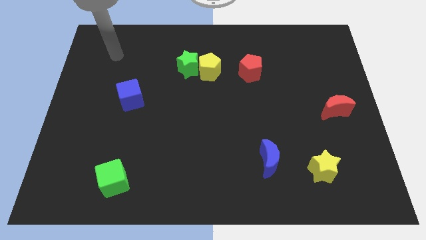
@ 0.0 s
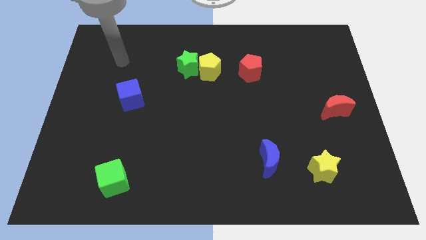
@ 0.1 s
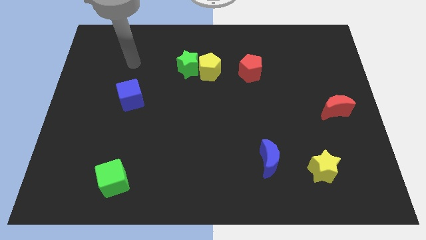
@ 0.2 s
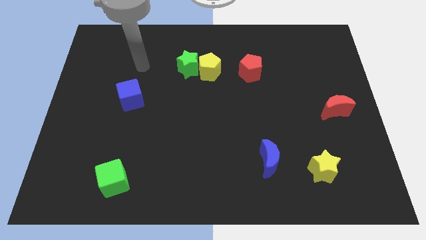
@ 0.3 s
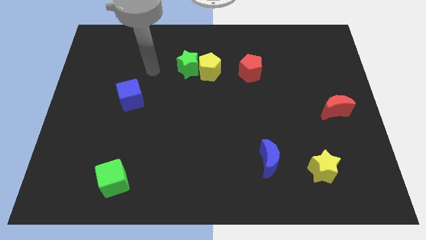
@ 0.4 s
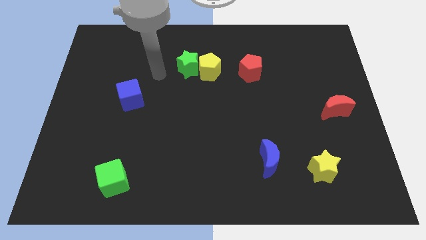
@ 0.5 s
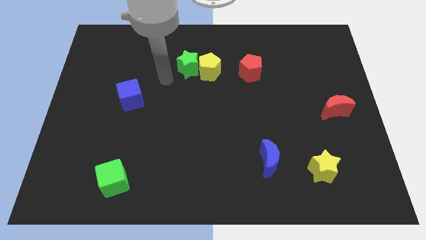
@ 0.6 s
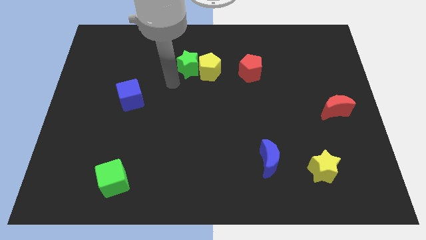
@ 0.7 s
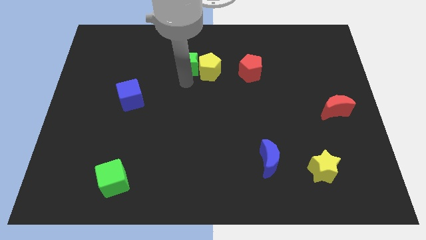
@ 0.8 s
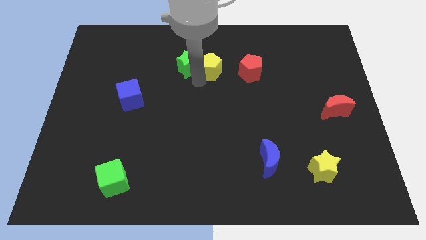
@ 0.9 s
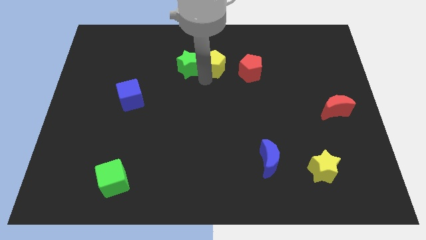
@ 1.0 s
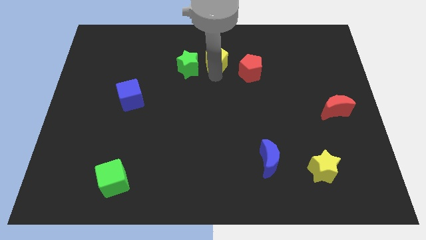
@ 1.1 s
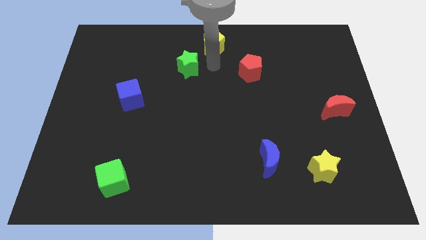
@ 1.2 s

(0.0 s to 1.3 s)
pull the green star apart from the yellow pentagon

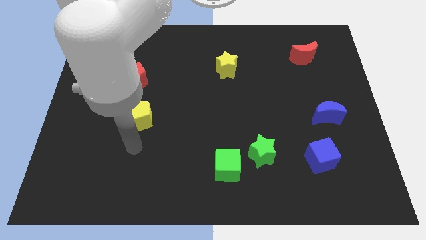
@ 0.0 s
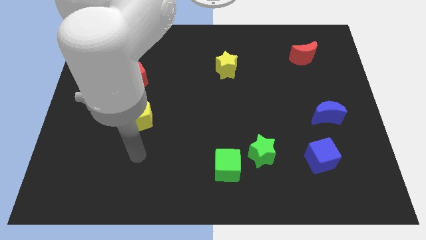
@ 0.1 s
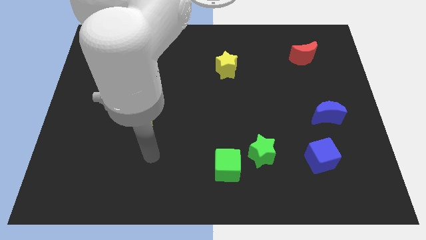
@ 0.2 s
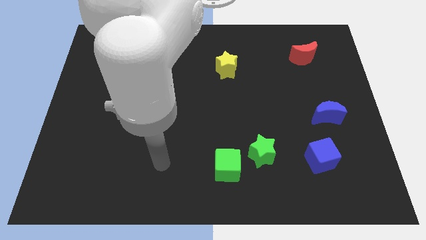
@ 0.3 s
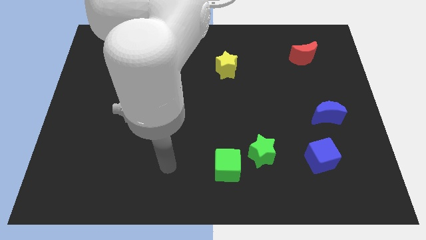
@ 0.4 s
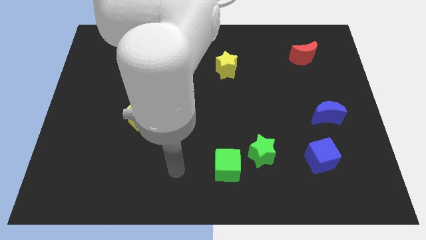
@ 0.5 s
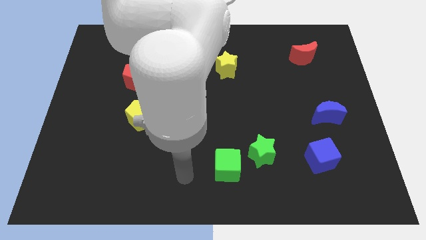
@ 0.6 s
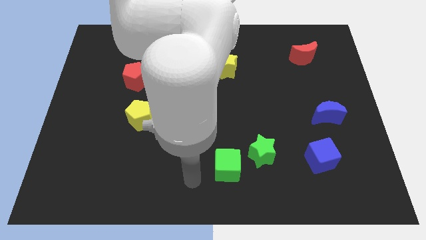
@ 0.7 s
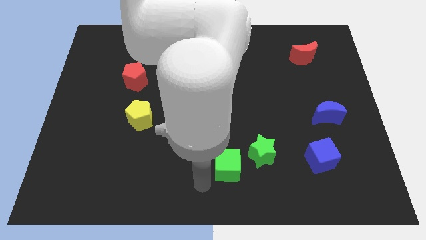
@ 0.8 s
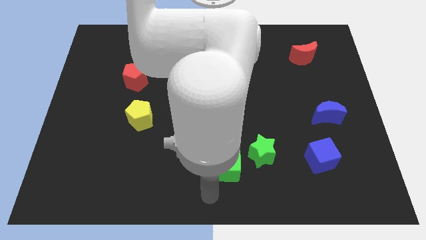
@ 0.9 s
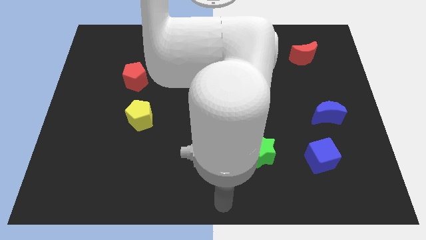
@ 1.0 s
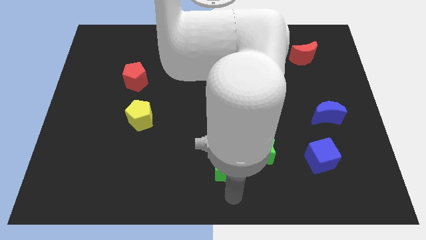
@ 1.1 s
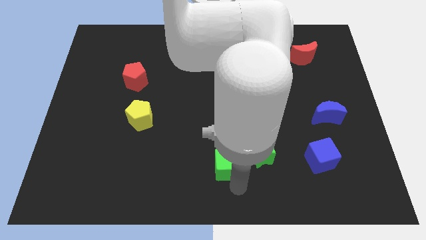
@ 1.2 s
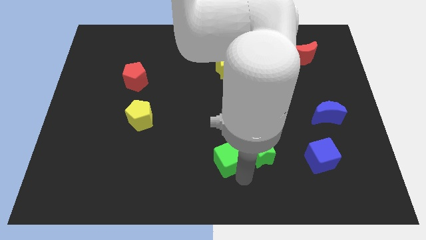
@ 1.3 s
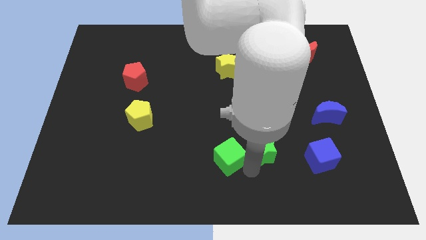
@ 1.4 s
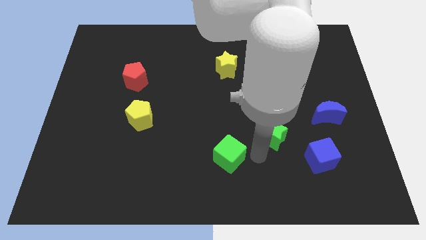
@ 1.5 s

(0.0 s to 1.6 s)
pull the green cube apart from the green star

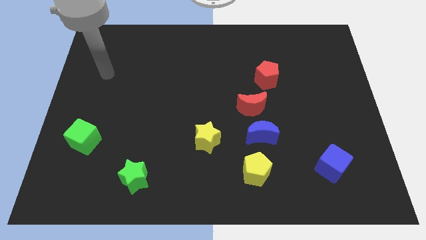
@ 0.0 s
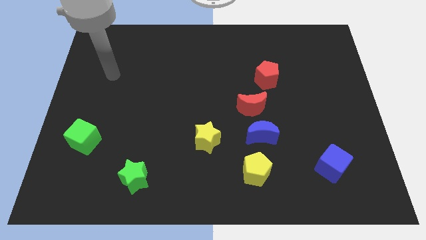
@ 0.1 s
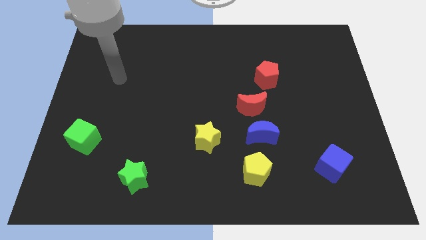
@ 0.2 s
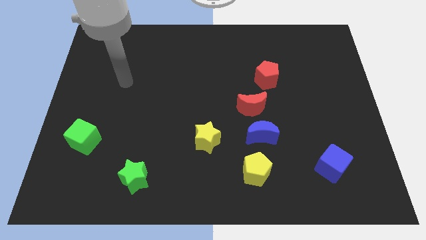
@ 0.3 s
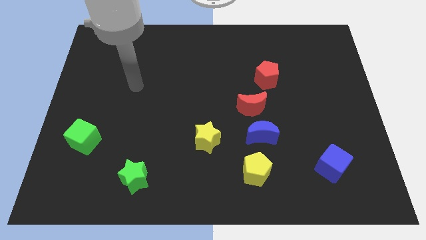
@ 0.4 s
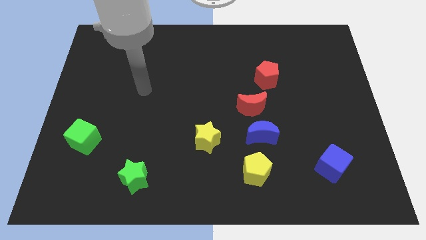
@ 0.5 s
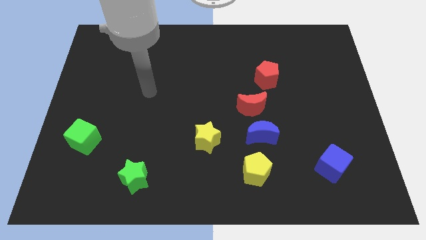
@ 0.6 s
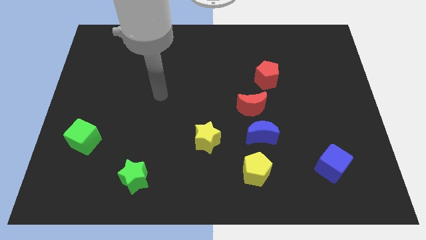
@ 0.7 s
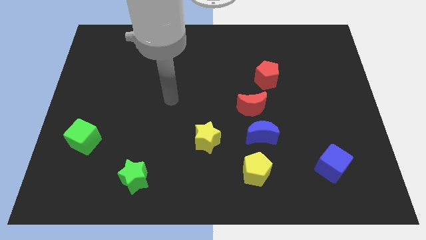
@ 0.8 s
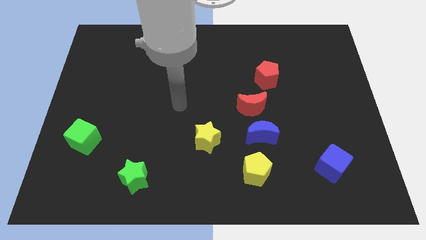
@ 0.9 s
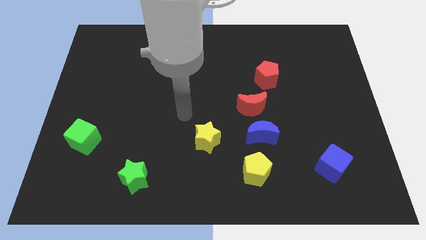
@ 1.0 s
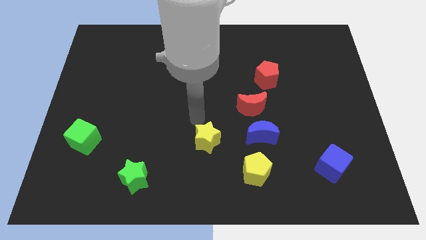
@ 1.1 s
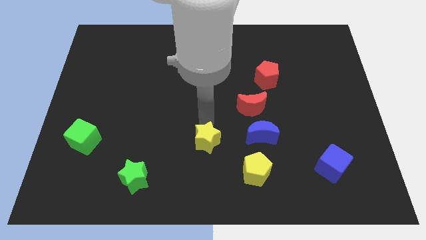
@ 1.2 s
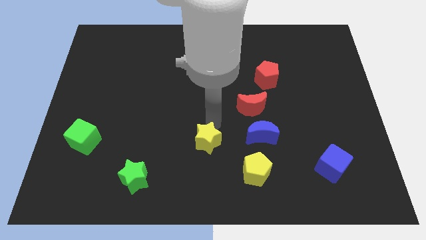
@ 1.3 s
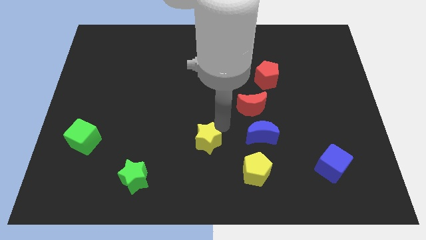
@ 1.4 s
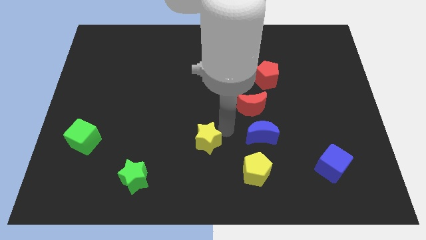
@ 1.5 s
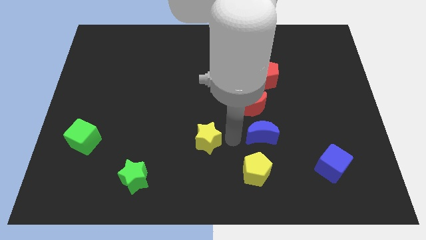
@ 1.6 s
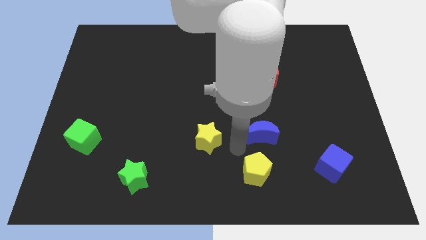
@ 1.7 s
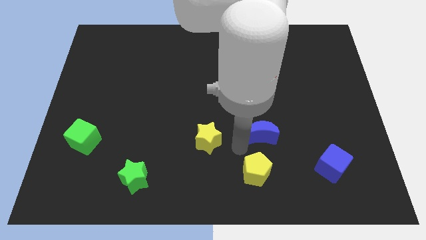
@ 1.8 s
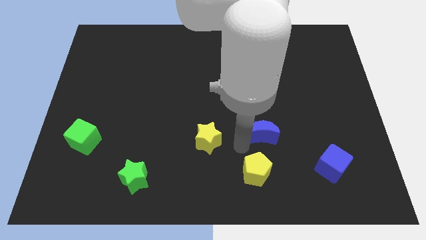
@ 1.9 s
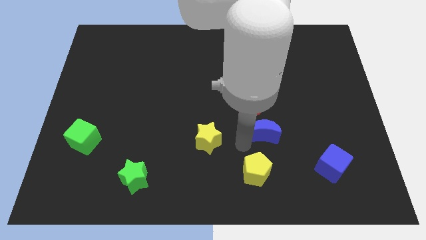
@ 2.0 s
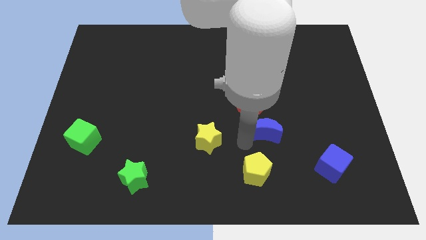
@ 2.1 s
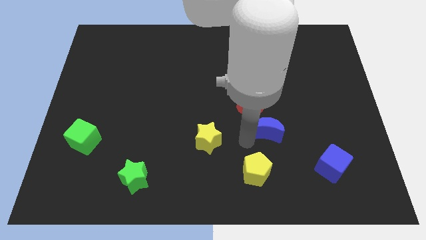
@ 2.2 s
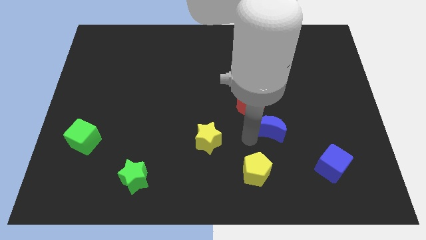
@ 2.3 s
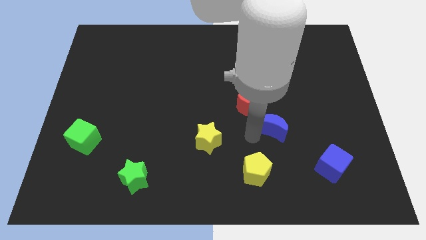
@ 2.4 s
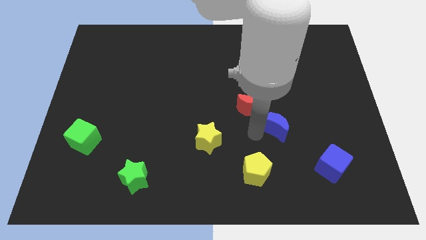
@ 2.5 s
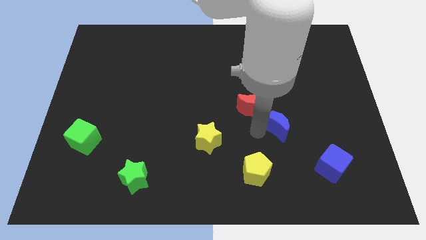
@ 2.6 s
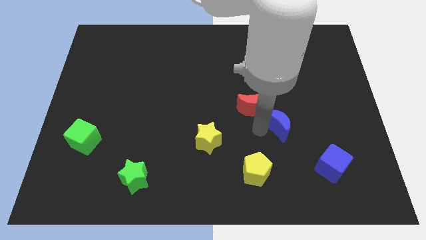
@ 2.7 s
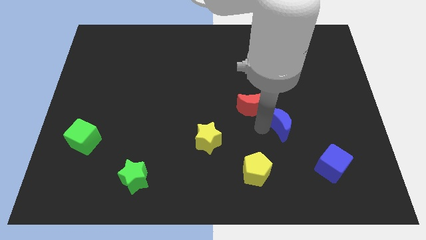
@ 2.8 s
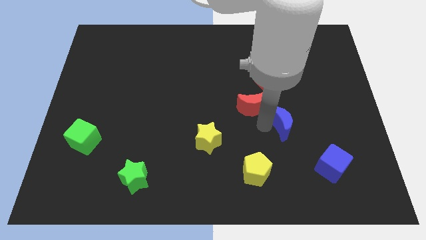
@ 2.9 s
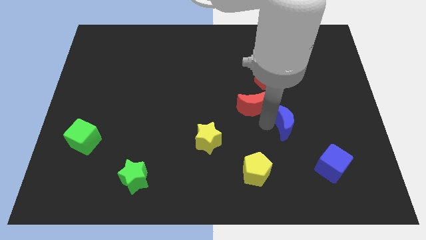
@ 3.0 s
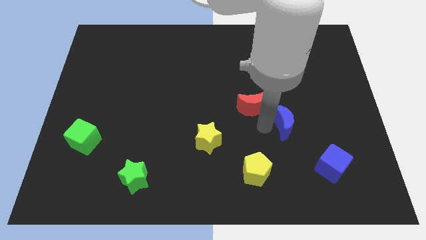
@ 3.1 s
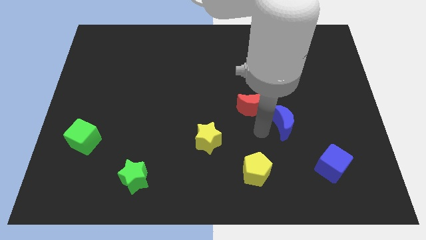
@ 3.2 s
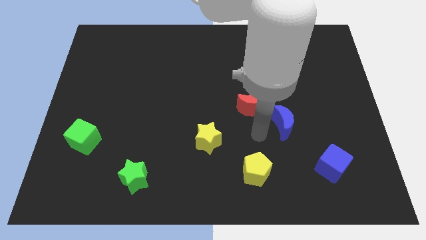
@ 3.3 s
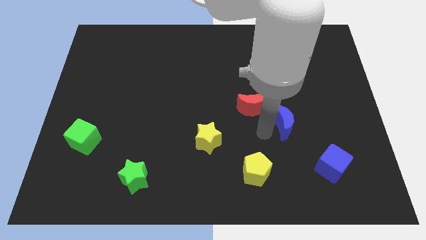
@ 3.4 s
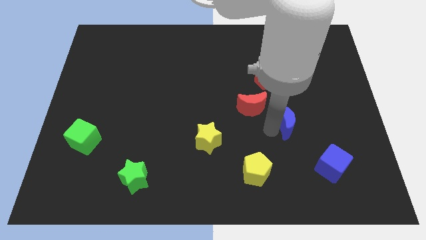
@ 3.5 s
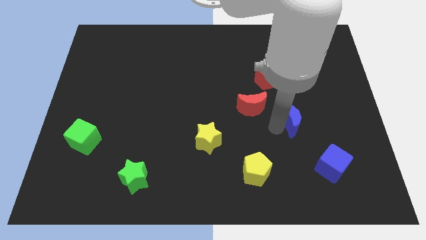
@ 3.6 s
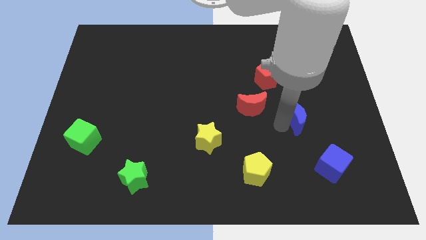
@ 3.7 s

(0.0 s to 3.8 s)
separate the blue moon from the red moon and yellow pentagon

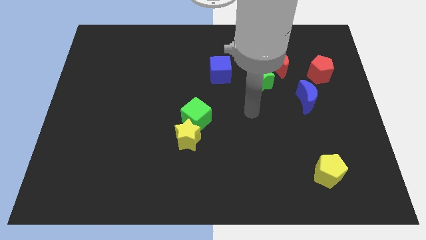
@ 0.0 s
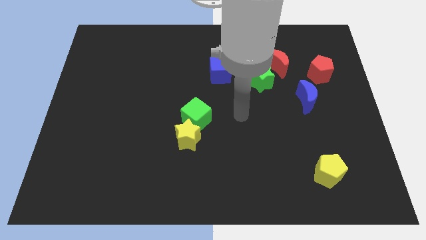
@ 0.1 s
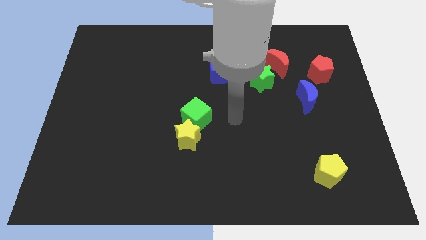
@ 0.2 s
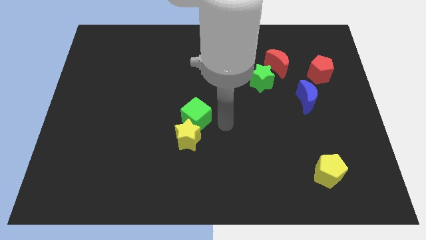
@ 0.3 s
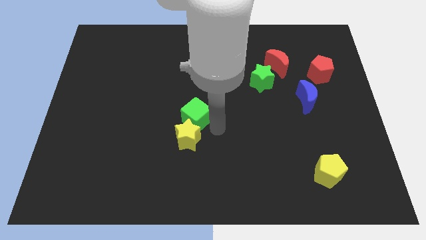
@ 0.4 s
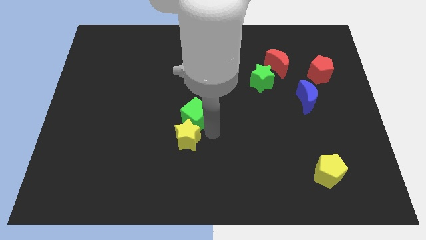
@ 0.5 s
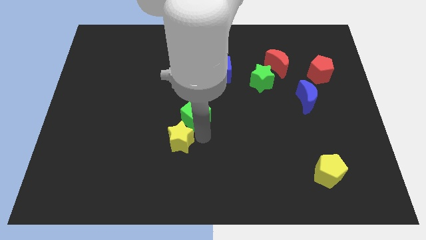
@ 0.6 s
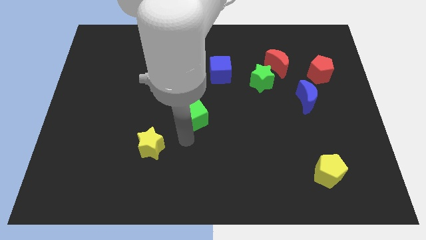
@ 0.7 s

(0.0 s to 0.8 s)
pull the green cube apart from the yellow star

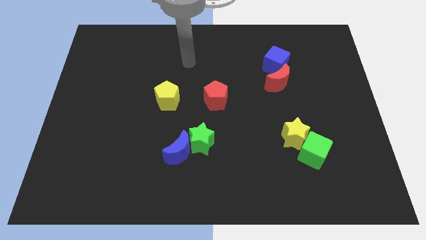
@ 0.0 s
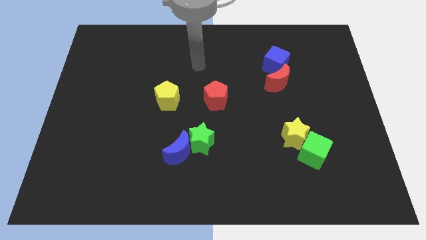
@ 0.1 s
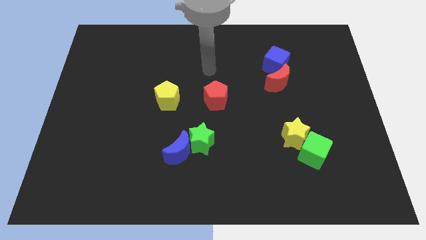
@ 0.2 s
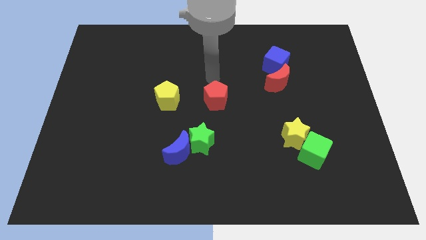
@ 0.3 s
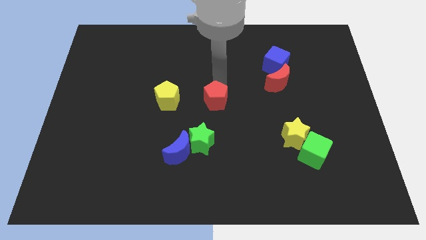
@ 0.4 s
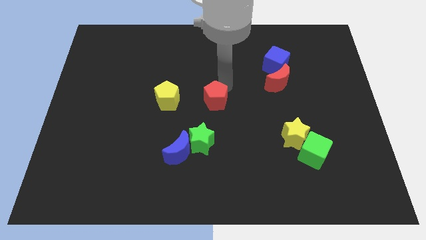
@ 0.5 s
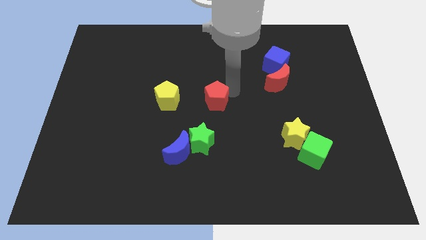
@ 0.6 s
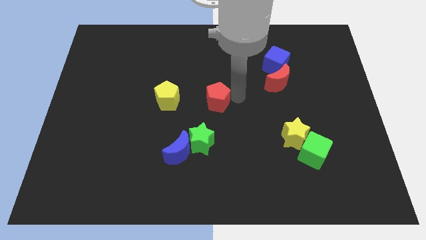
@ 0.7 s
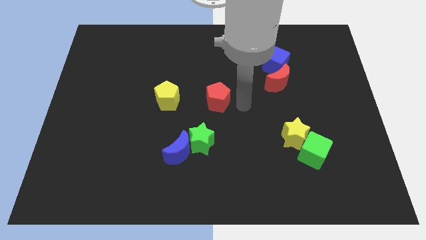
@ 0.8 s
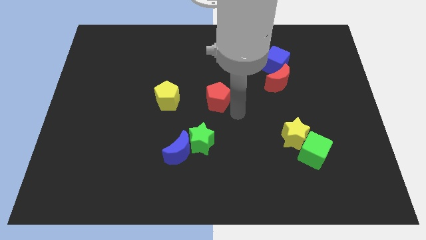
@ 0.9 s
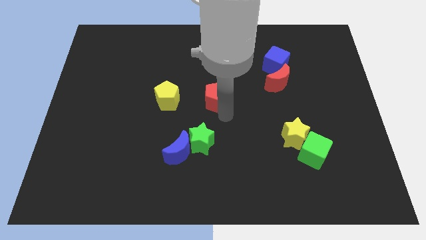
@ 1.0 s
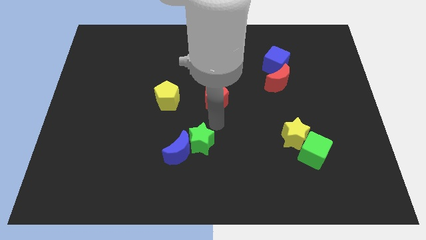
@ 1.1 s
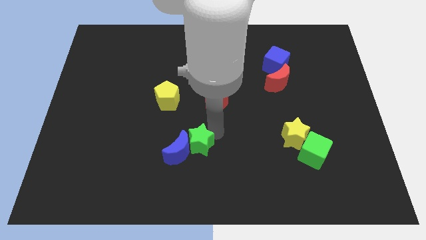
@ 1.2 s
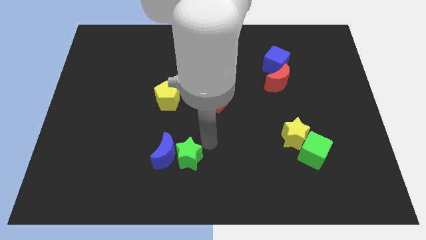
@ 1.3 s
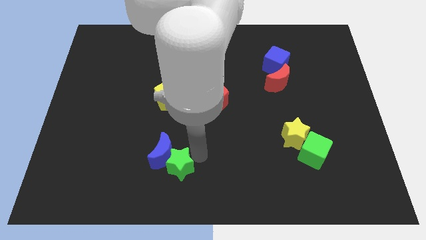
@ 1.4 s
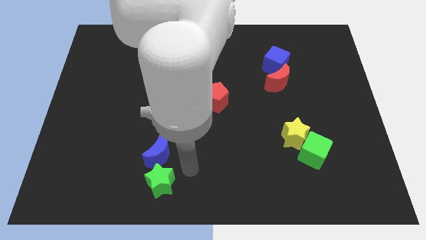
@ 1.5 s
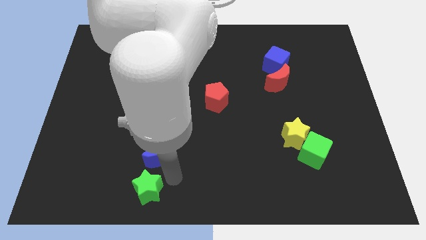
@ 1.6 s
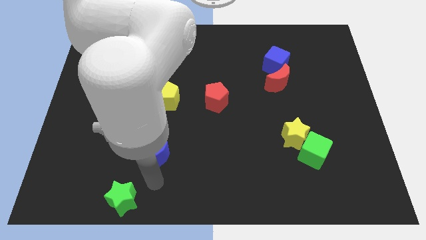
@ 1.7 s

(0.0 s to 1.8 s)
pull the blue moon apart from the green star
